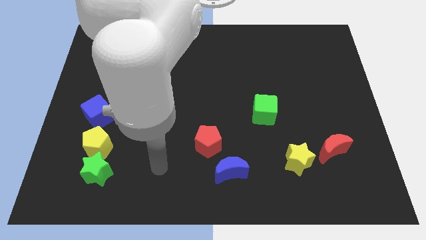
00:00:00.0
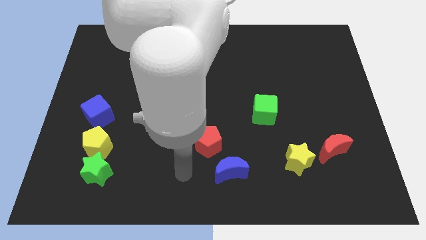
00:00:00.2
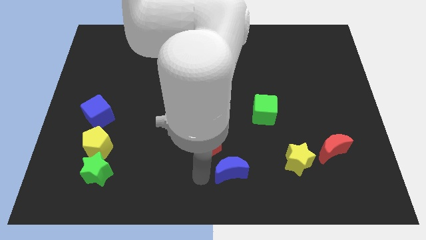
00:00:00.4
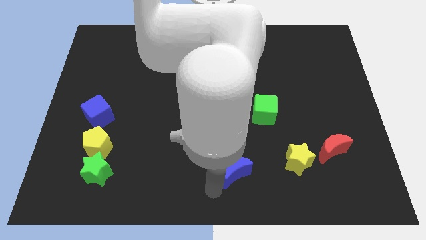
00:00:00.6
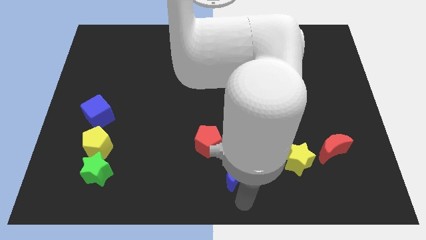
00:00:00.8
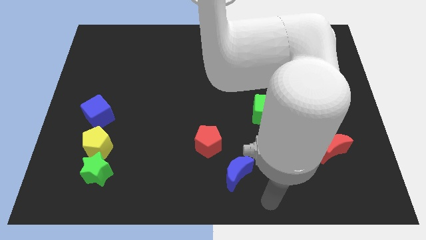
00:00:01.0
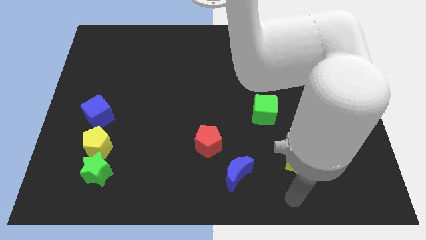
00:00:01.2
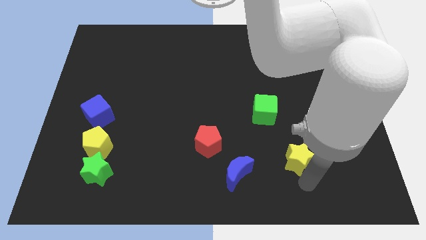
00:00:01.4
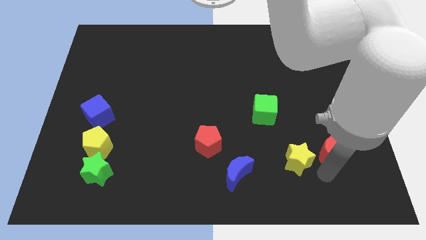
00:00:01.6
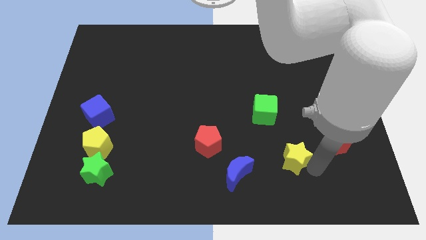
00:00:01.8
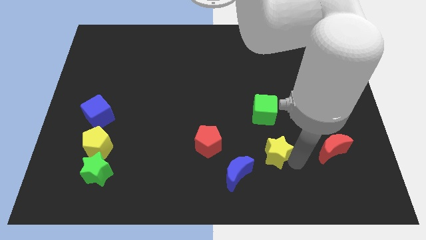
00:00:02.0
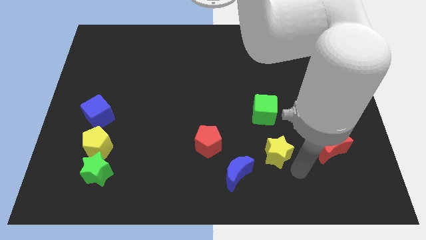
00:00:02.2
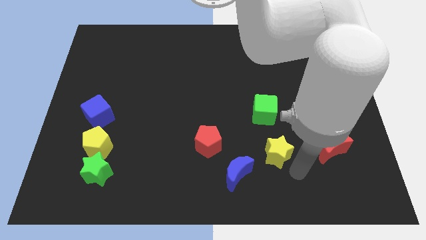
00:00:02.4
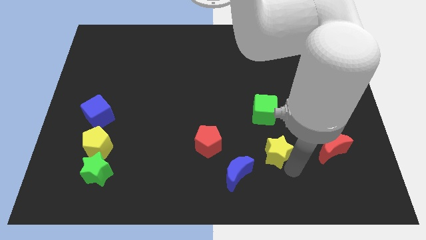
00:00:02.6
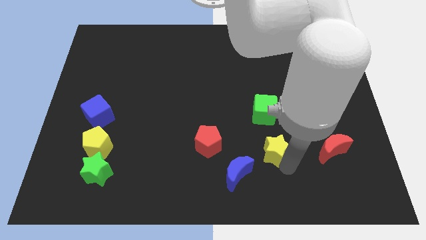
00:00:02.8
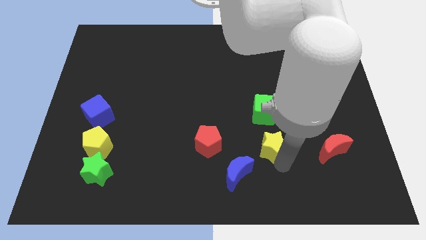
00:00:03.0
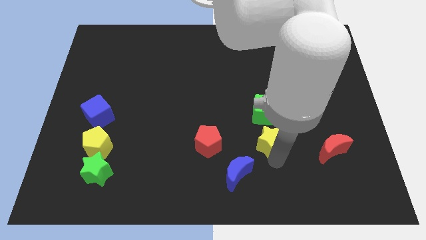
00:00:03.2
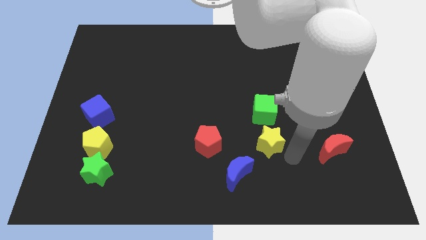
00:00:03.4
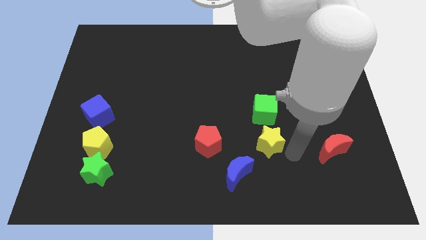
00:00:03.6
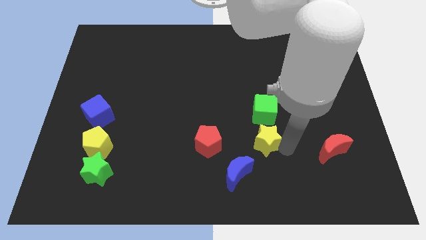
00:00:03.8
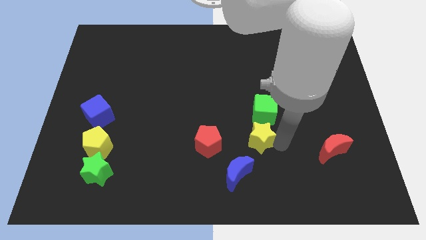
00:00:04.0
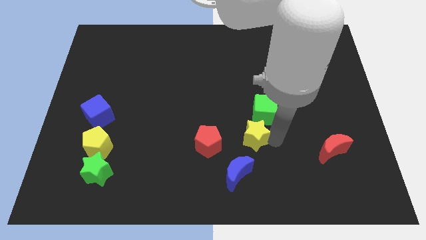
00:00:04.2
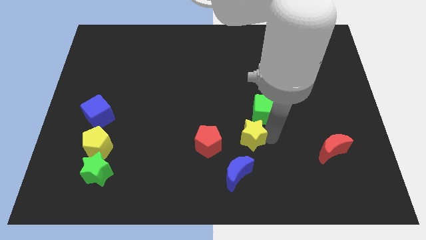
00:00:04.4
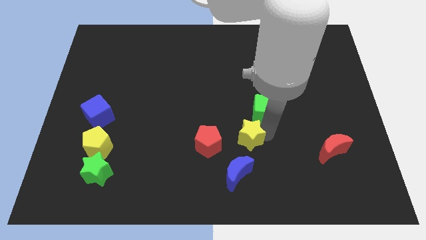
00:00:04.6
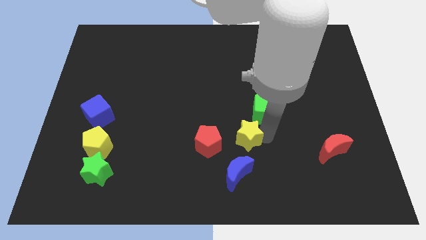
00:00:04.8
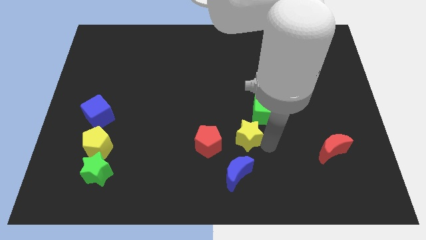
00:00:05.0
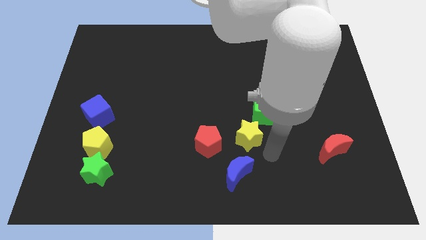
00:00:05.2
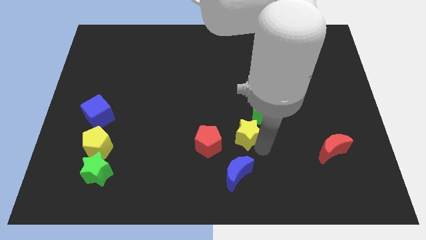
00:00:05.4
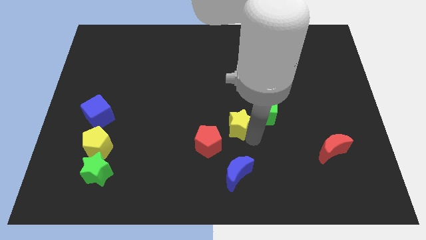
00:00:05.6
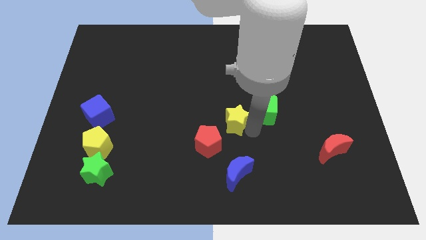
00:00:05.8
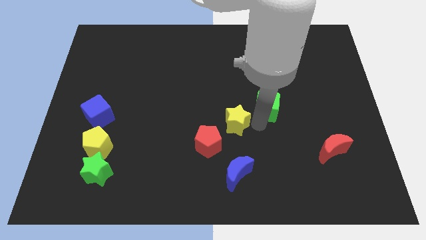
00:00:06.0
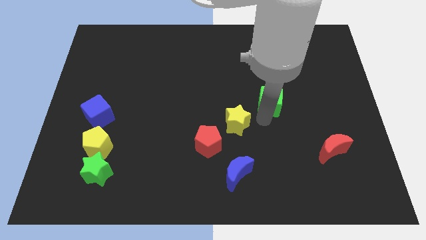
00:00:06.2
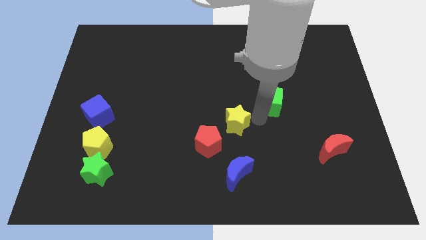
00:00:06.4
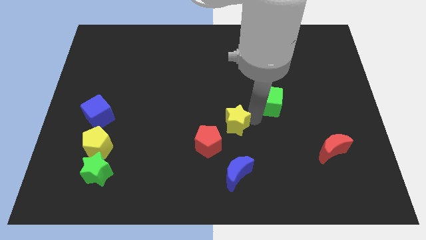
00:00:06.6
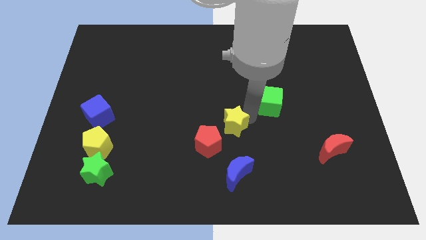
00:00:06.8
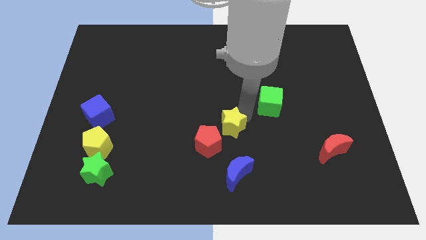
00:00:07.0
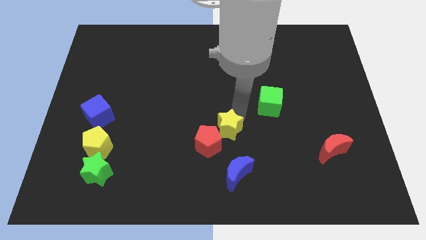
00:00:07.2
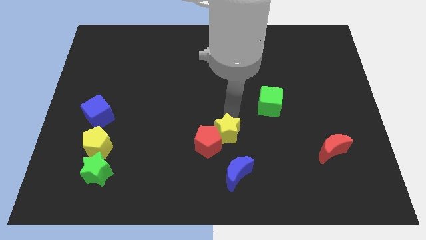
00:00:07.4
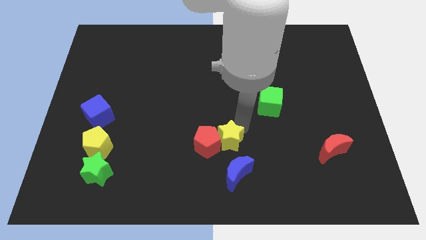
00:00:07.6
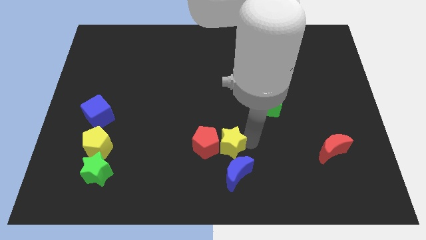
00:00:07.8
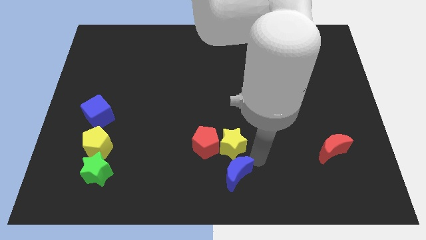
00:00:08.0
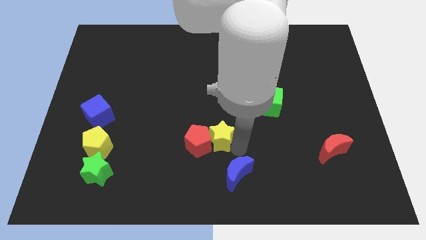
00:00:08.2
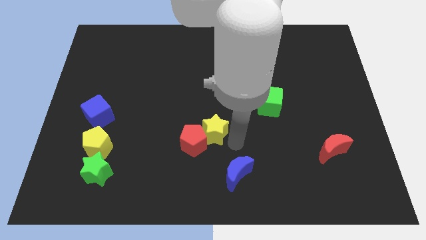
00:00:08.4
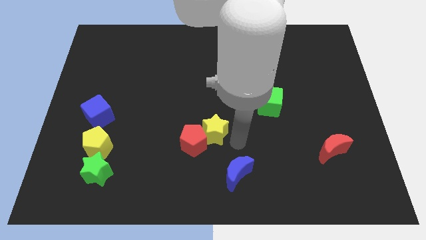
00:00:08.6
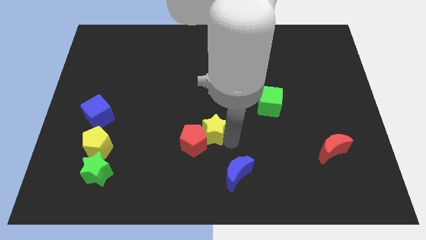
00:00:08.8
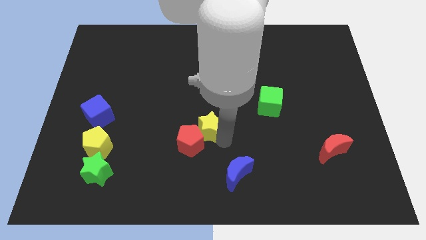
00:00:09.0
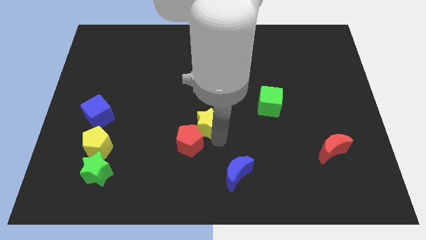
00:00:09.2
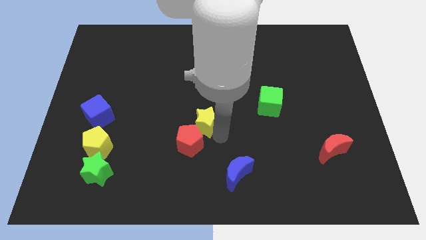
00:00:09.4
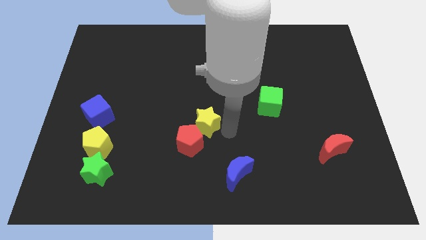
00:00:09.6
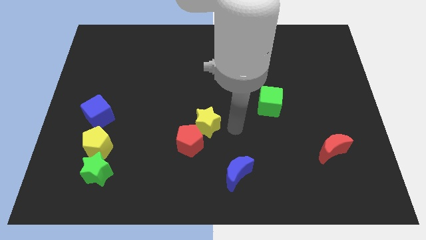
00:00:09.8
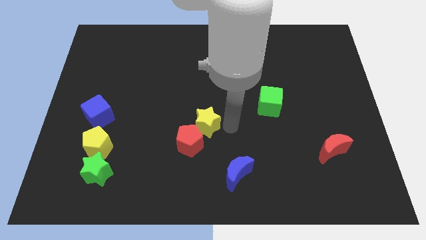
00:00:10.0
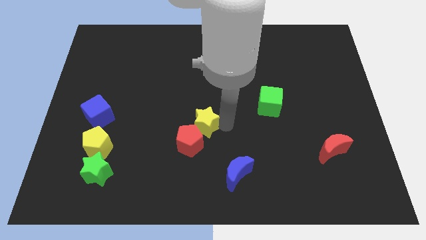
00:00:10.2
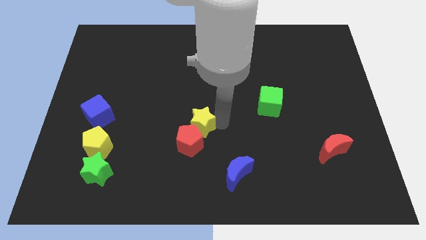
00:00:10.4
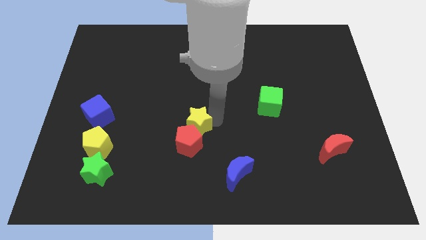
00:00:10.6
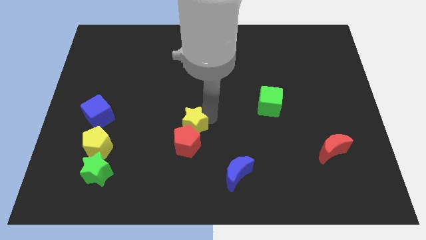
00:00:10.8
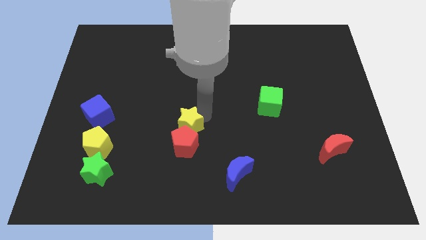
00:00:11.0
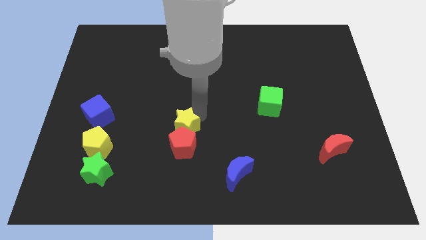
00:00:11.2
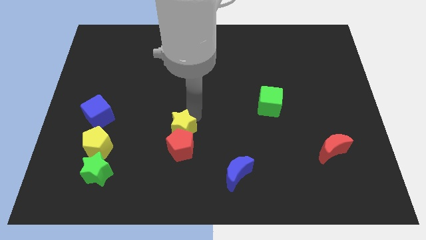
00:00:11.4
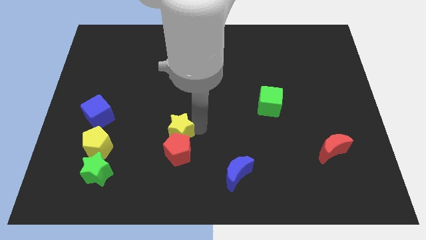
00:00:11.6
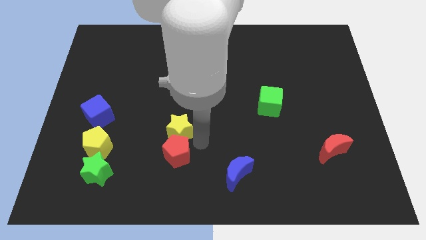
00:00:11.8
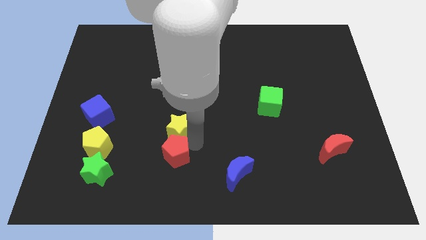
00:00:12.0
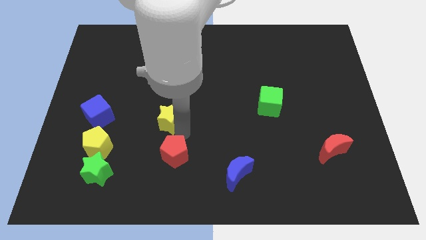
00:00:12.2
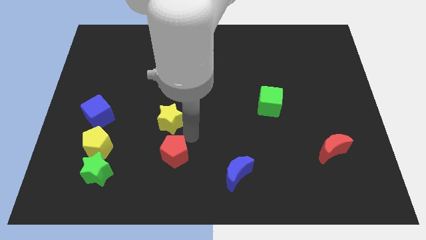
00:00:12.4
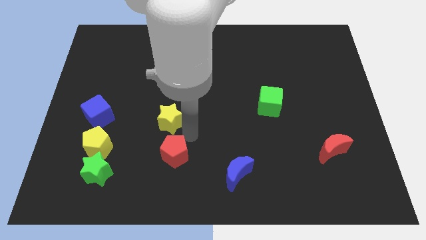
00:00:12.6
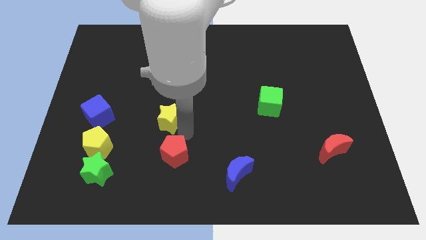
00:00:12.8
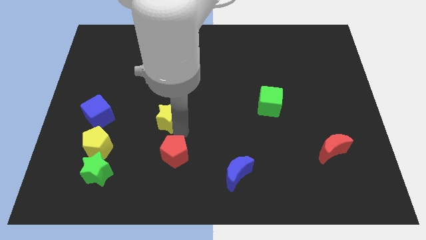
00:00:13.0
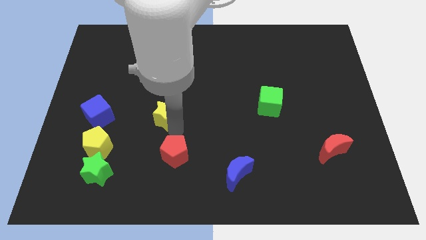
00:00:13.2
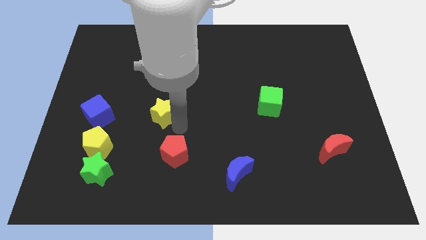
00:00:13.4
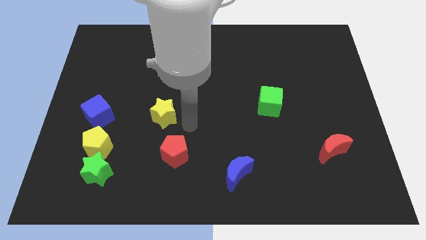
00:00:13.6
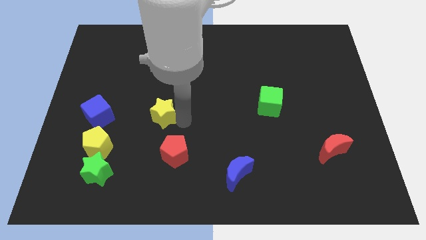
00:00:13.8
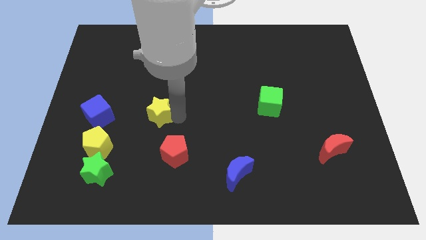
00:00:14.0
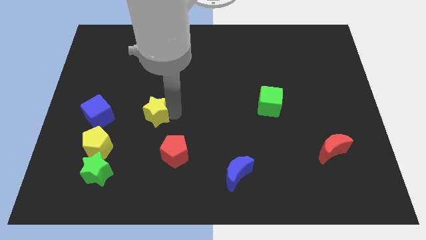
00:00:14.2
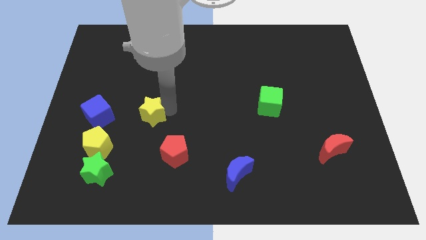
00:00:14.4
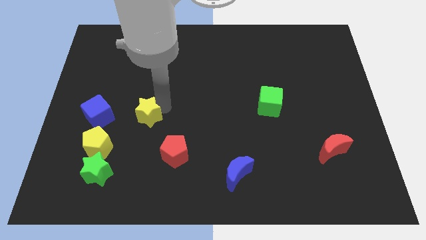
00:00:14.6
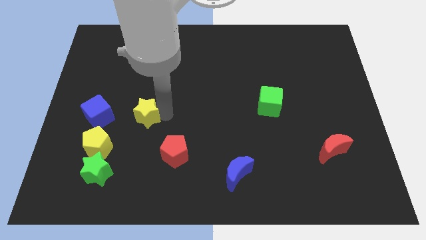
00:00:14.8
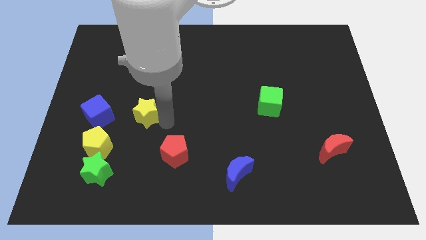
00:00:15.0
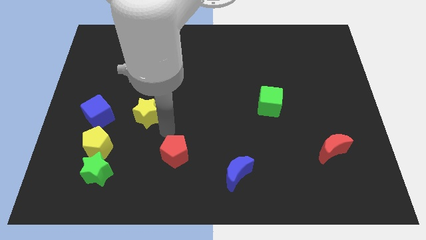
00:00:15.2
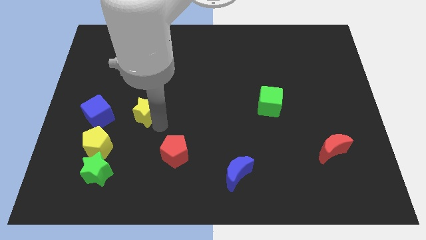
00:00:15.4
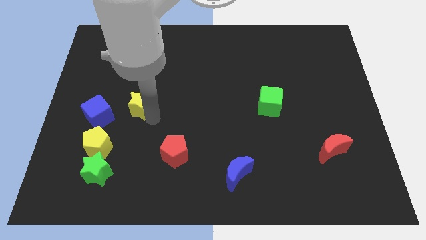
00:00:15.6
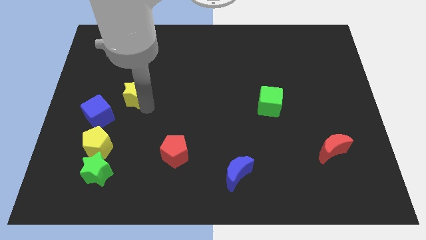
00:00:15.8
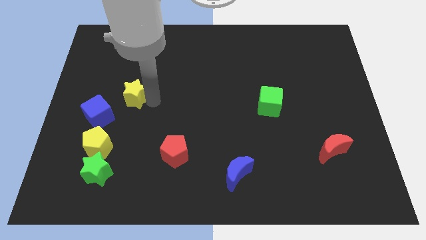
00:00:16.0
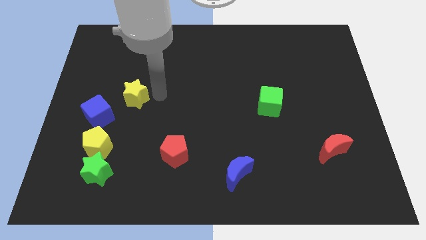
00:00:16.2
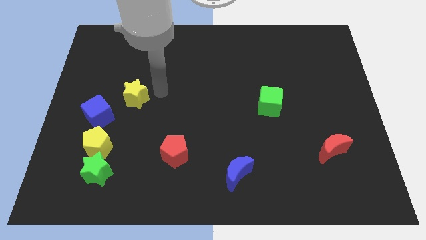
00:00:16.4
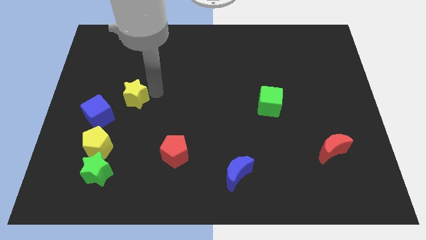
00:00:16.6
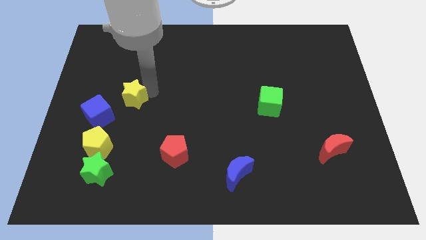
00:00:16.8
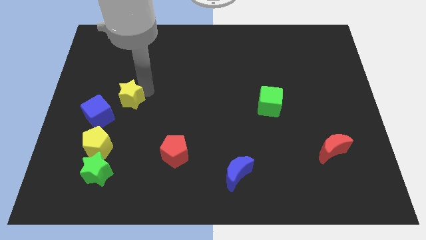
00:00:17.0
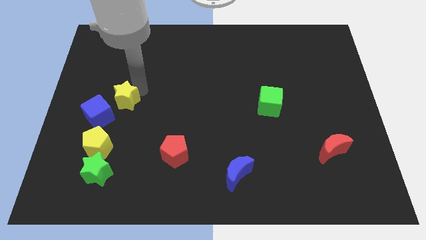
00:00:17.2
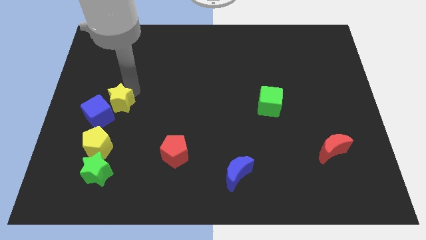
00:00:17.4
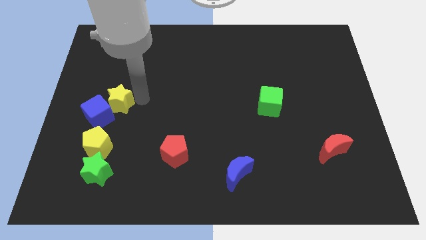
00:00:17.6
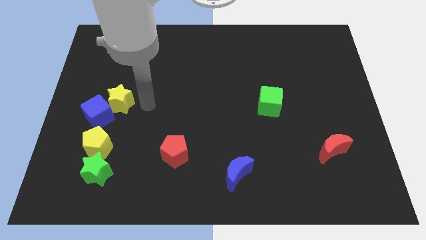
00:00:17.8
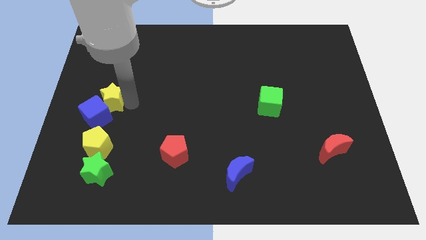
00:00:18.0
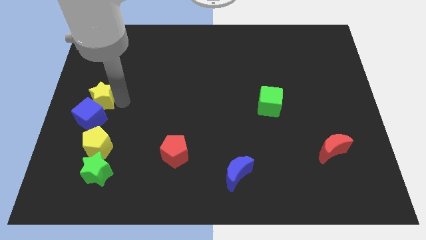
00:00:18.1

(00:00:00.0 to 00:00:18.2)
slide the yellow star to the center left
